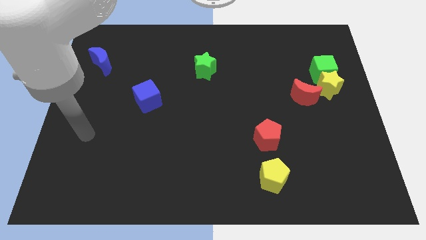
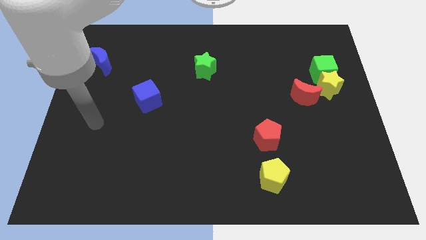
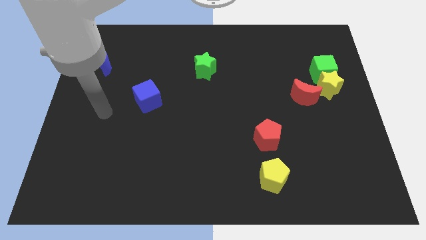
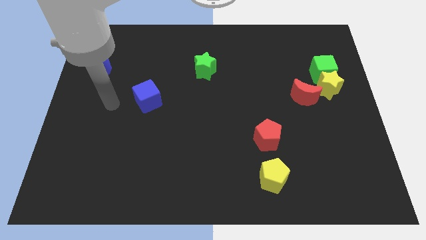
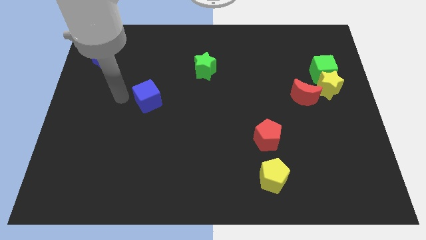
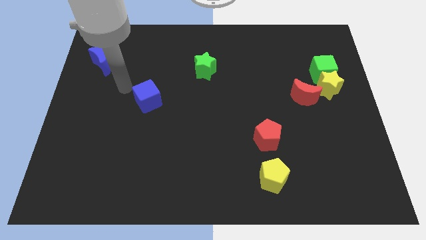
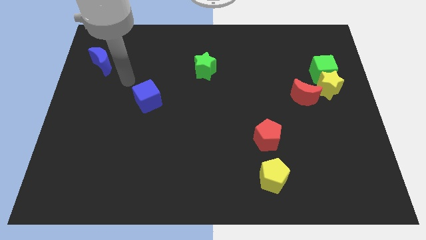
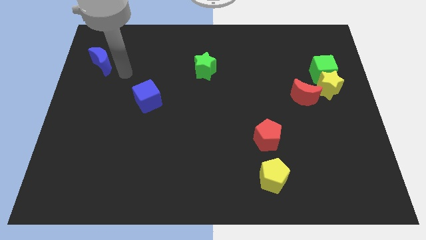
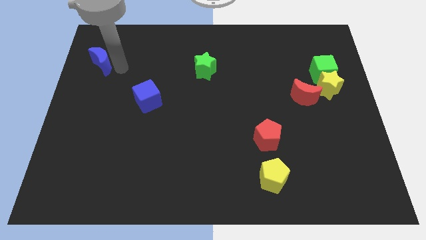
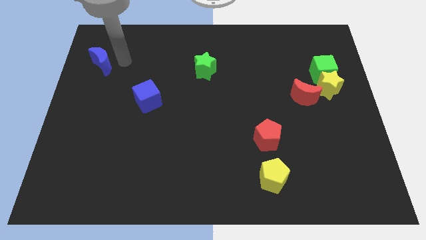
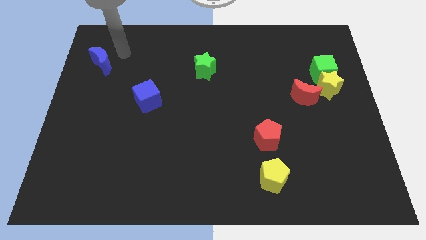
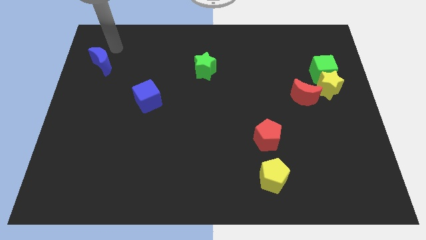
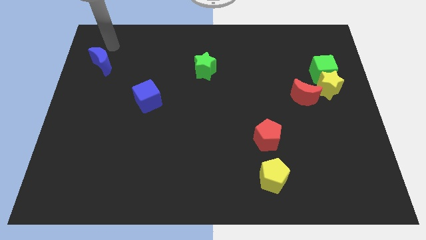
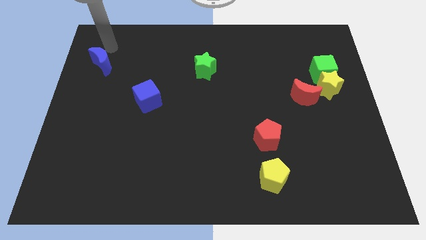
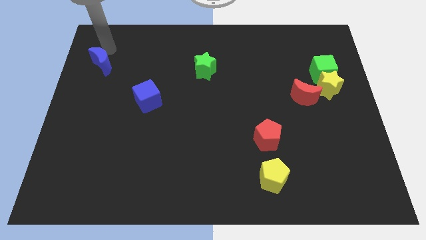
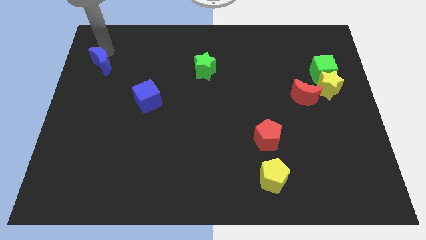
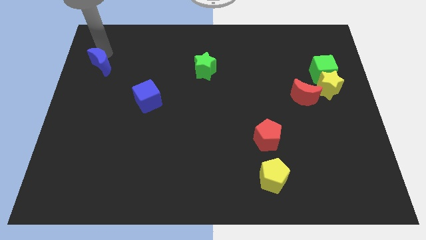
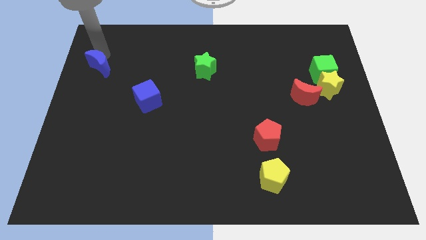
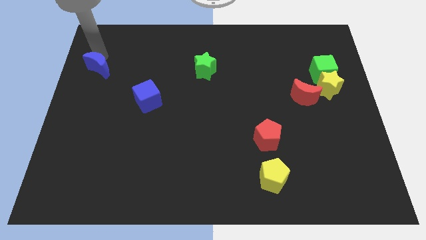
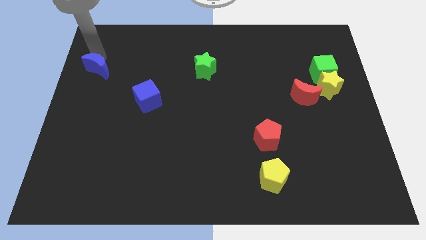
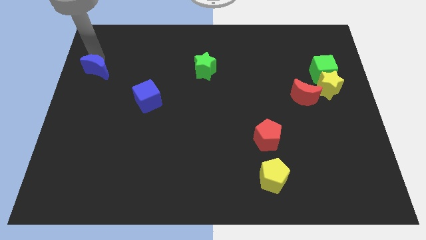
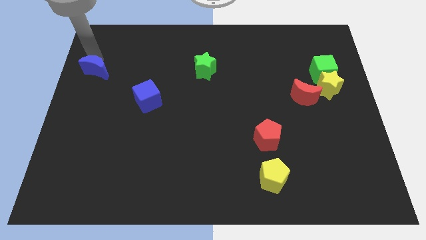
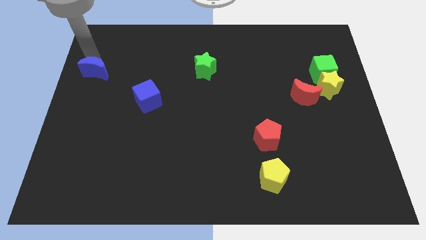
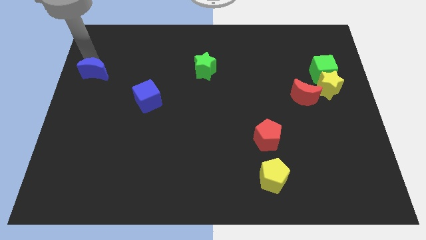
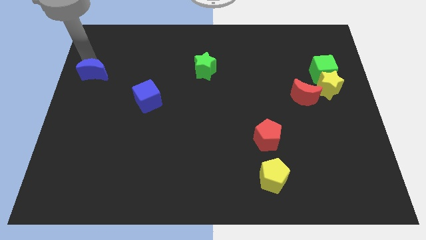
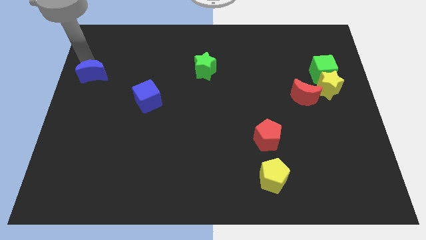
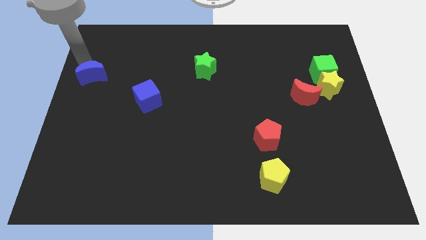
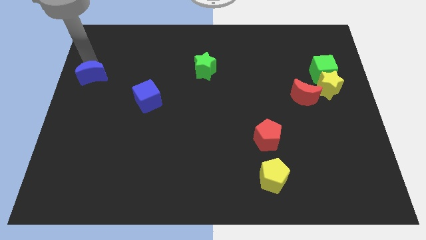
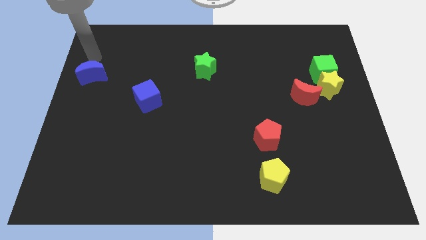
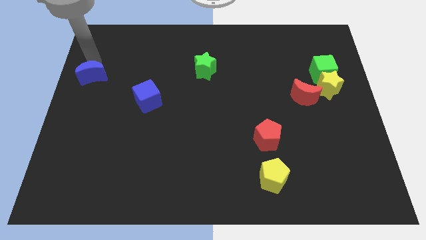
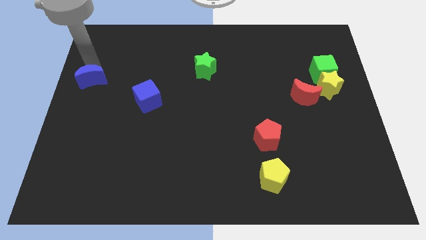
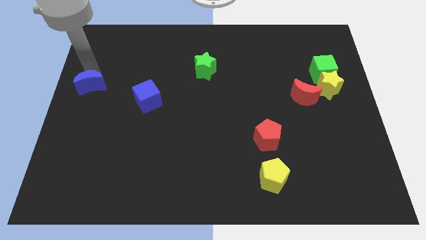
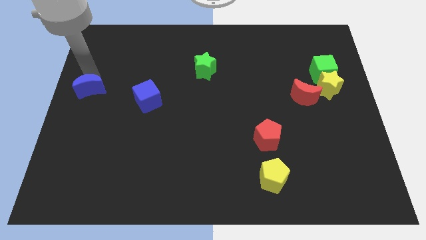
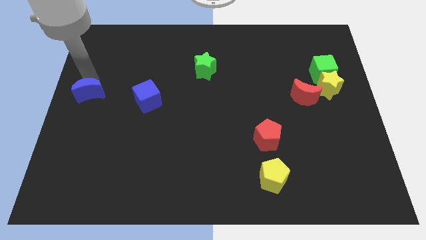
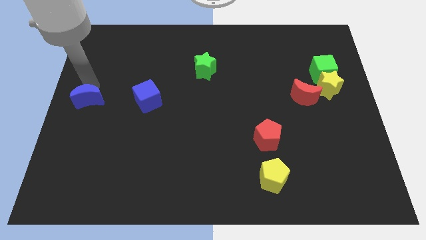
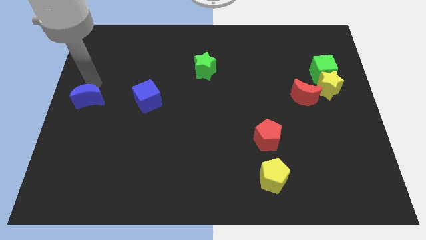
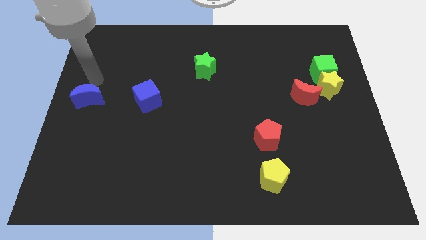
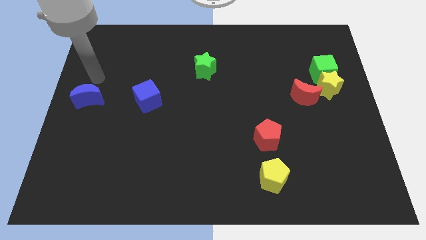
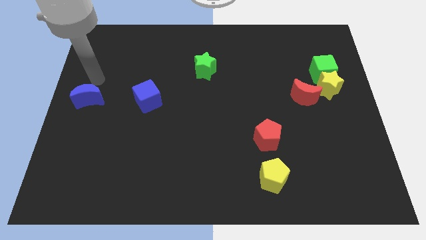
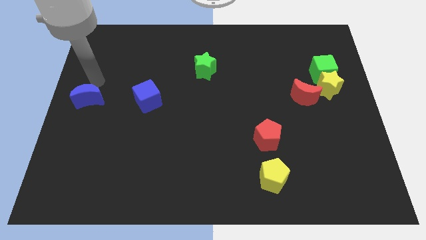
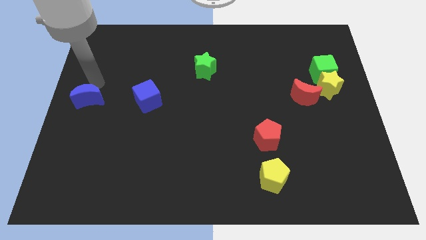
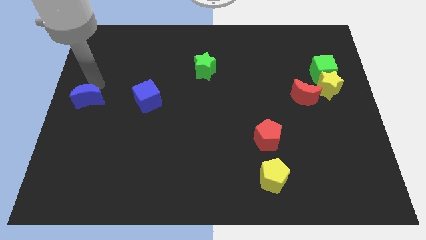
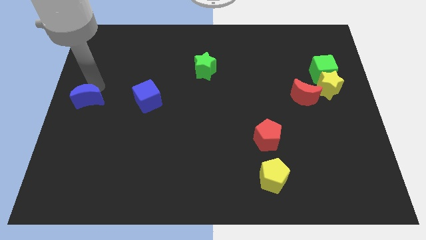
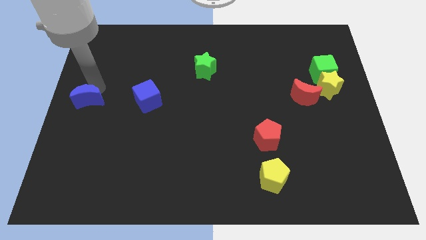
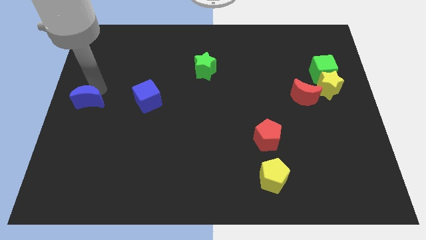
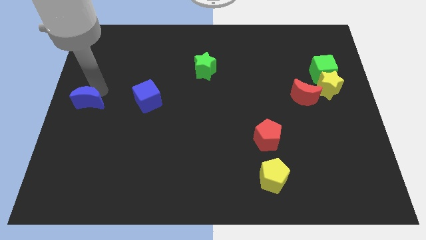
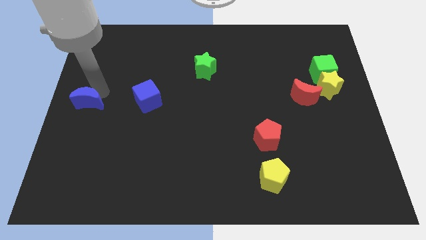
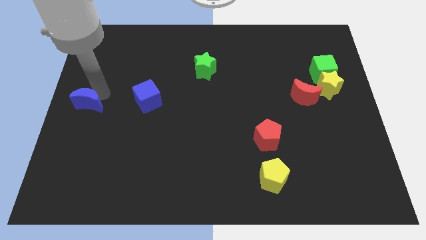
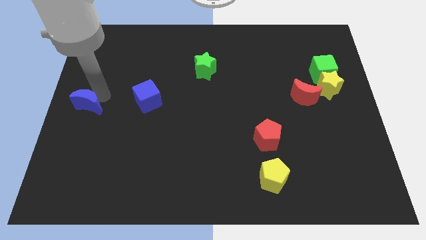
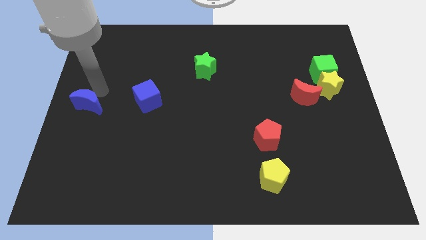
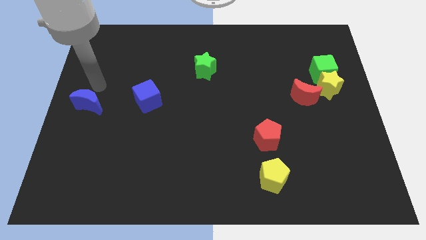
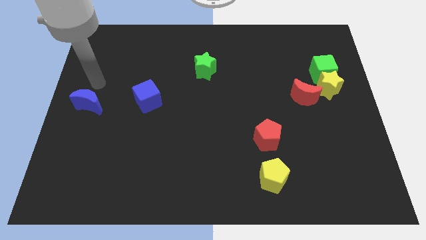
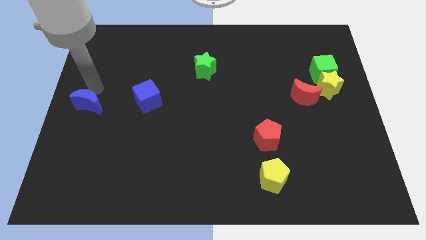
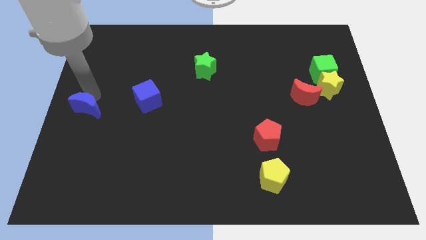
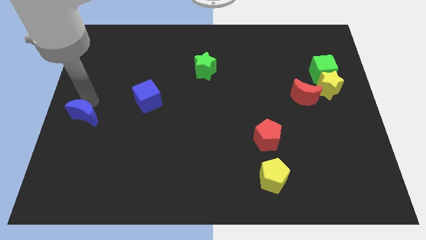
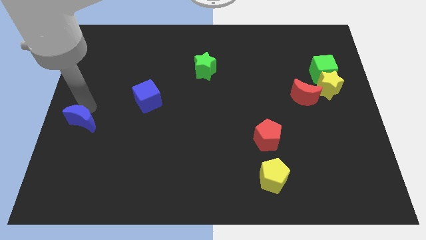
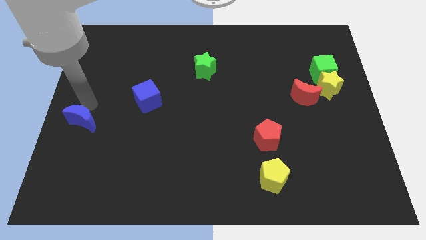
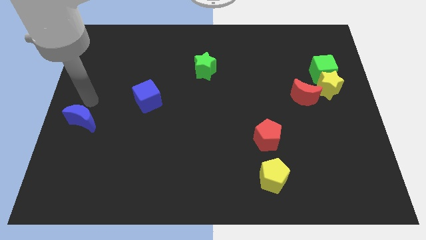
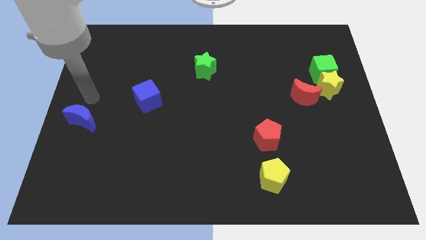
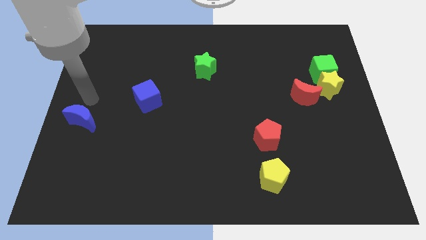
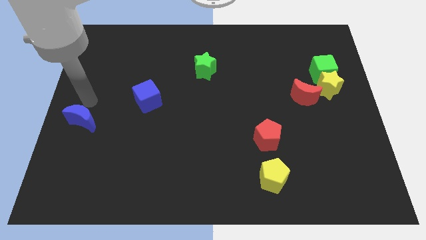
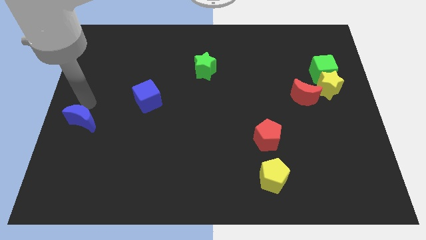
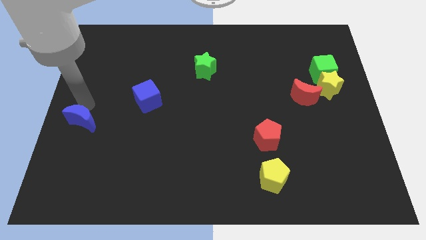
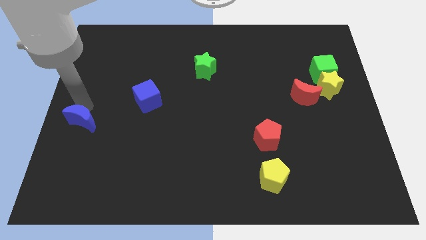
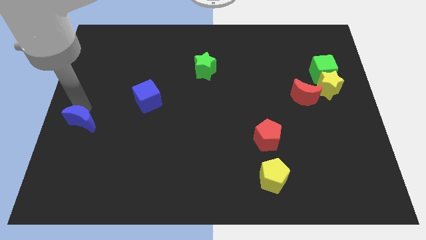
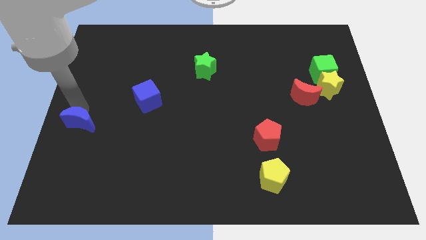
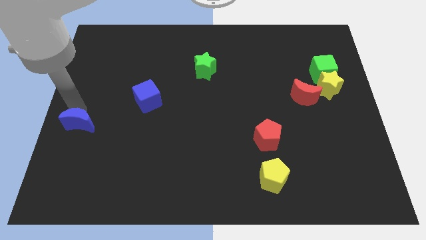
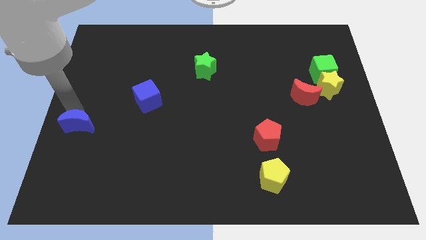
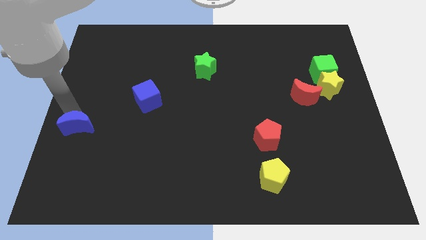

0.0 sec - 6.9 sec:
push the blue moon down

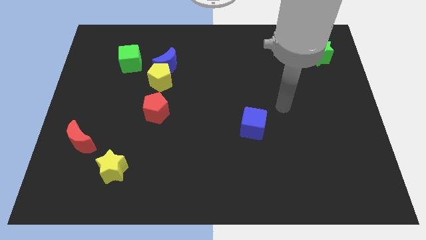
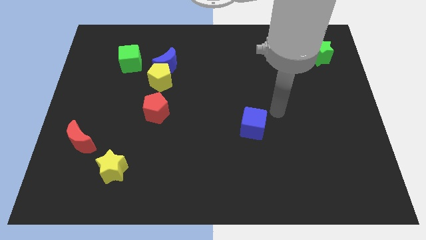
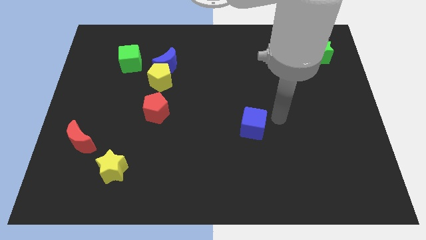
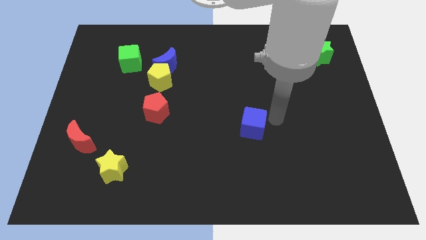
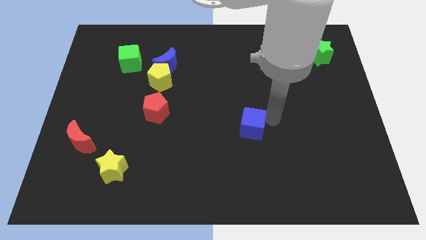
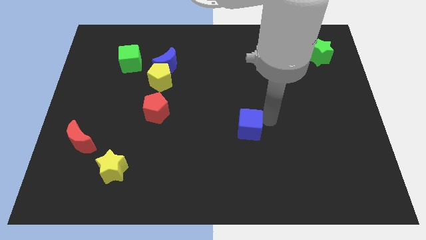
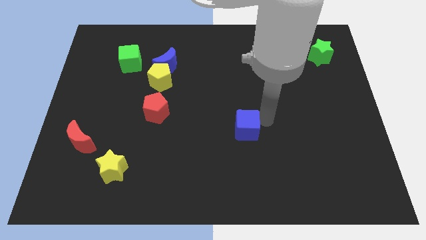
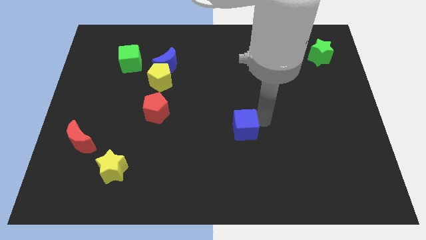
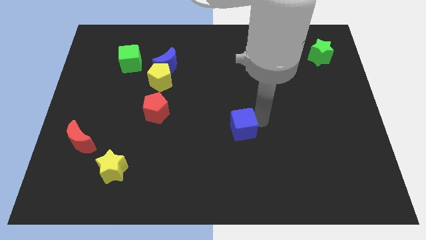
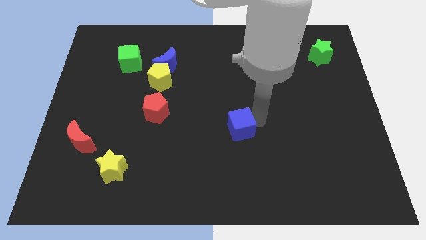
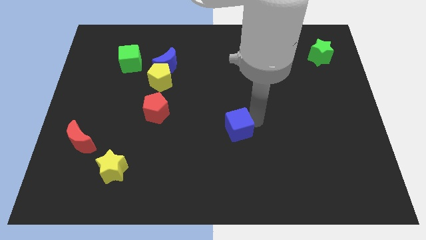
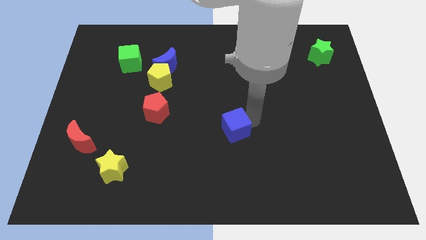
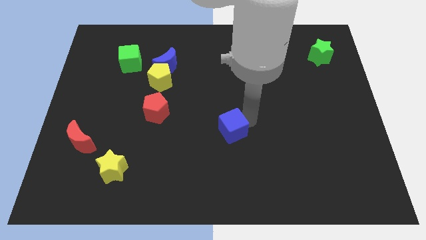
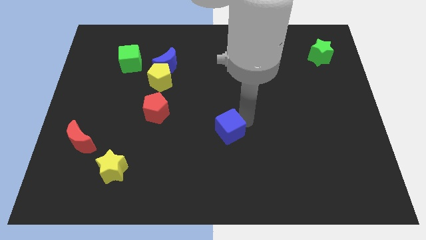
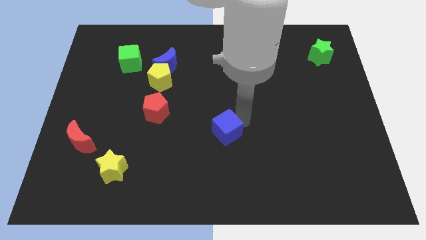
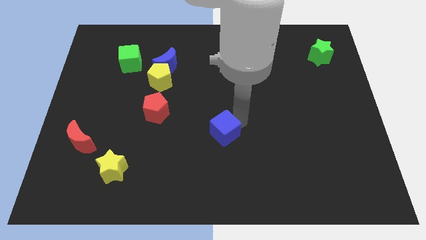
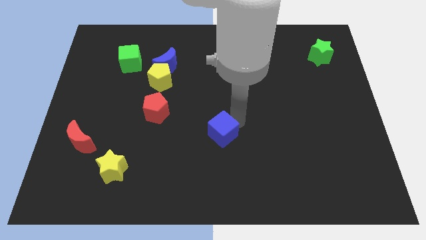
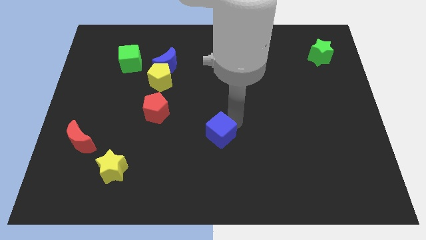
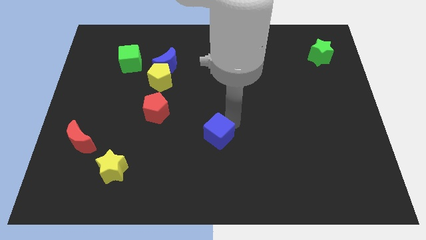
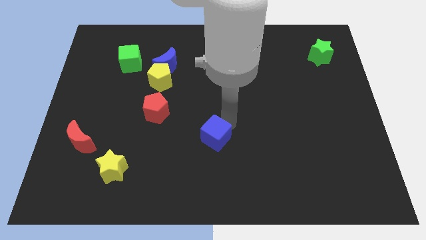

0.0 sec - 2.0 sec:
move the blue cube a little bit diagonally downwards and to the left
